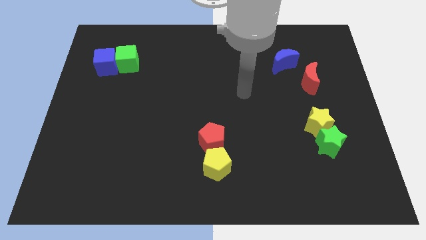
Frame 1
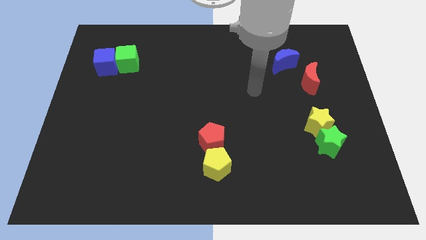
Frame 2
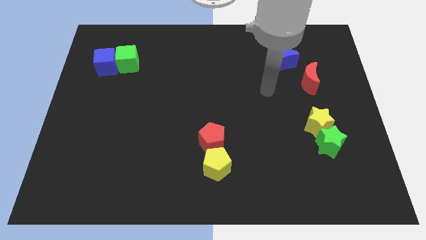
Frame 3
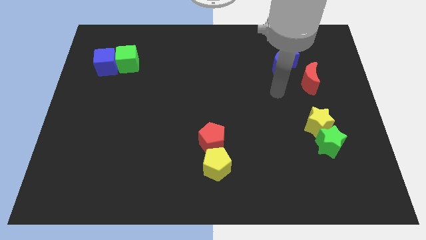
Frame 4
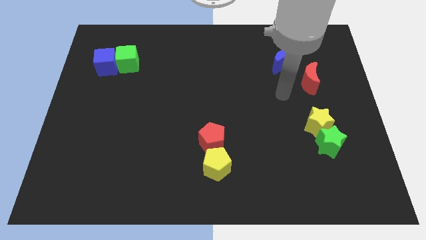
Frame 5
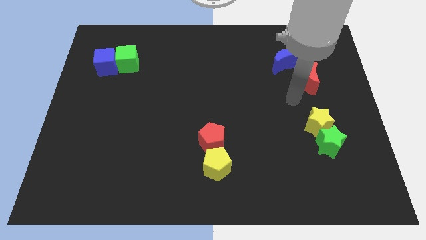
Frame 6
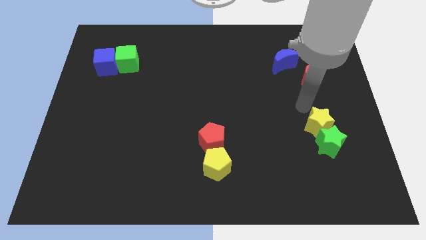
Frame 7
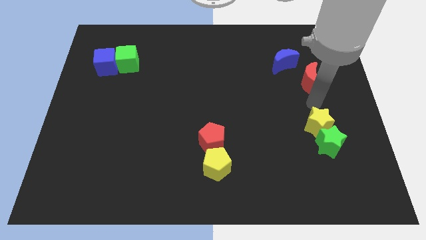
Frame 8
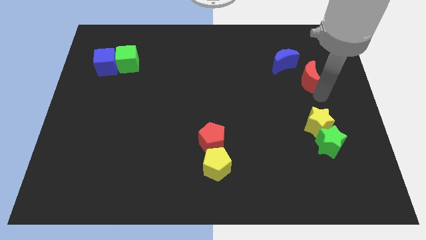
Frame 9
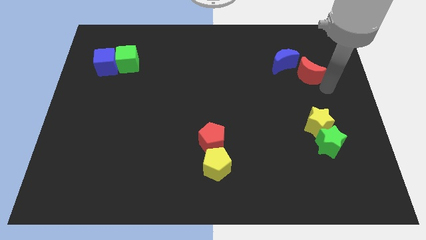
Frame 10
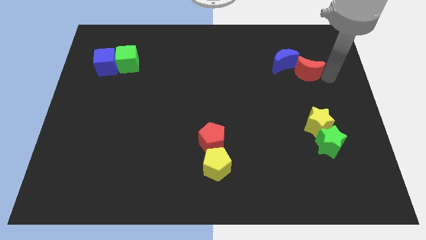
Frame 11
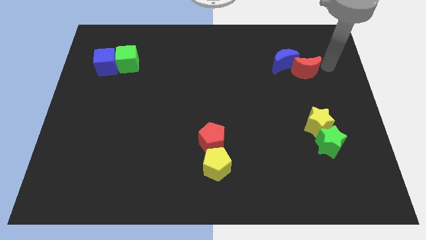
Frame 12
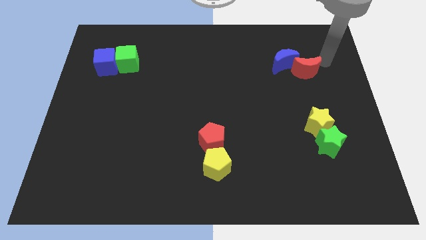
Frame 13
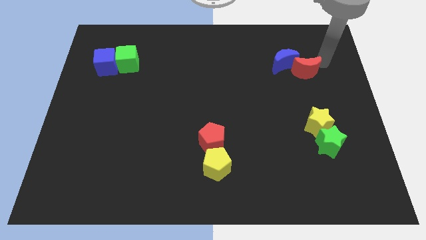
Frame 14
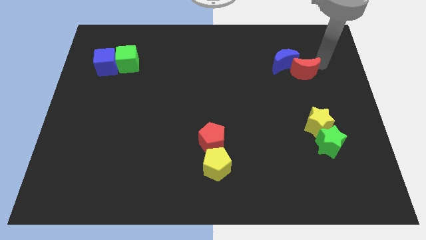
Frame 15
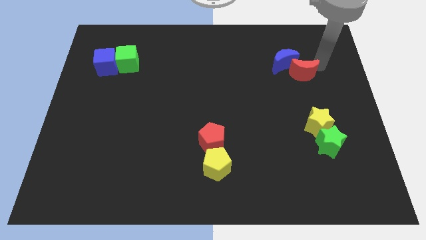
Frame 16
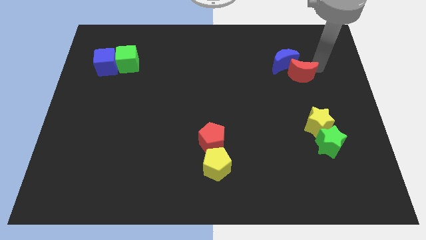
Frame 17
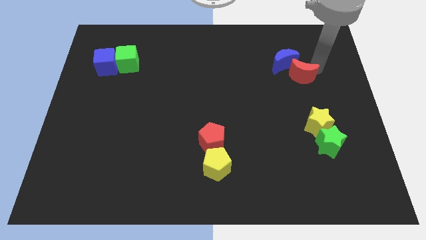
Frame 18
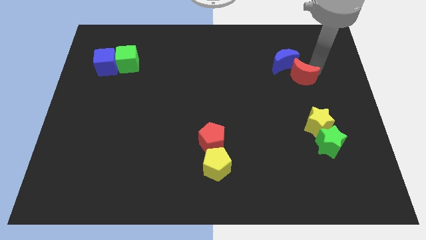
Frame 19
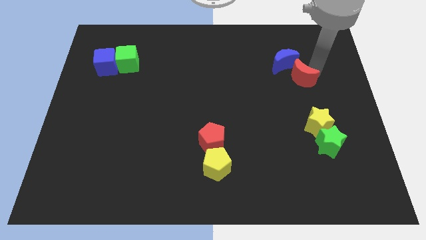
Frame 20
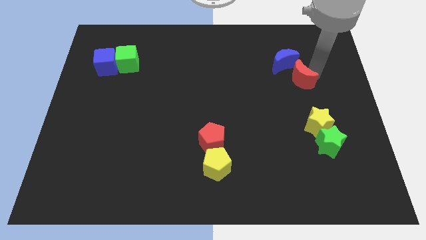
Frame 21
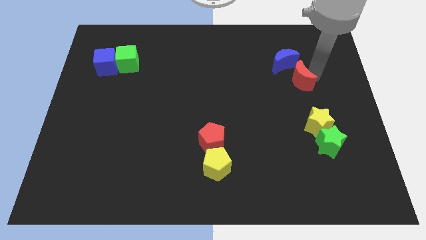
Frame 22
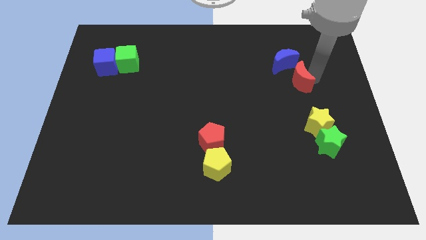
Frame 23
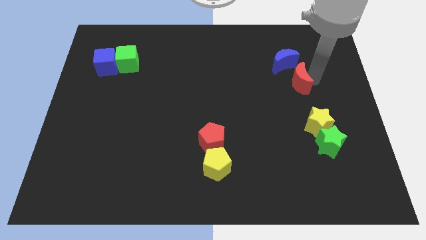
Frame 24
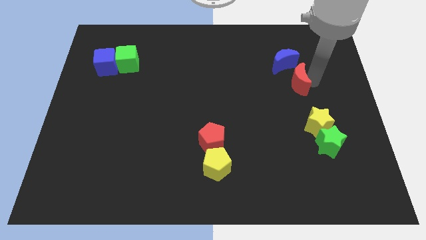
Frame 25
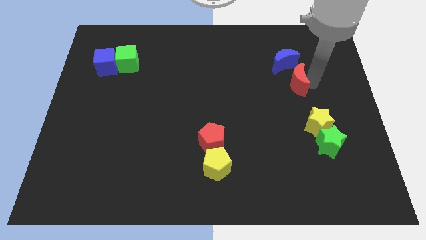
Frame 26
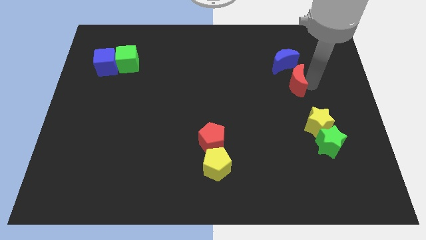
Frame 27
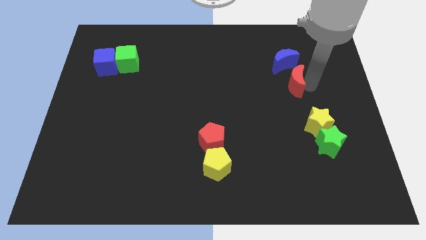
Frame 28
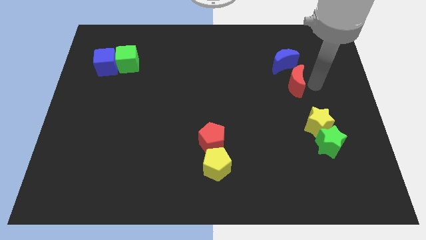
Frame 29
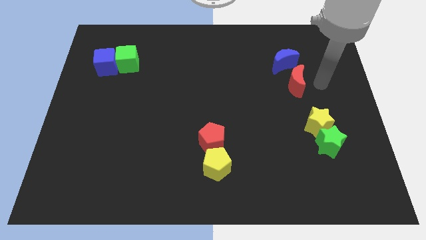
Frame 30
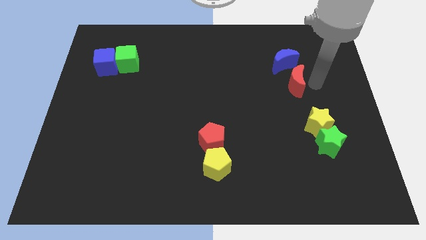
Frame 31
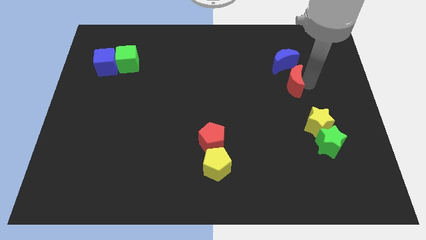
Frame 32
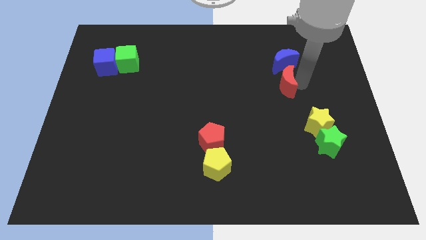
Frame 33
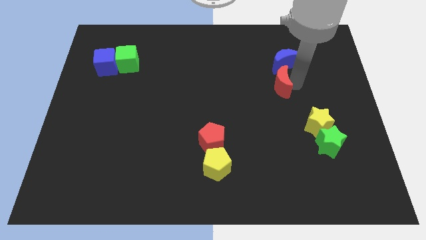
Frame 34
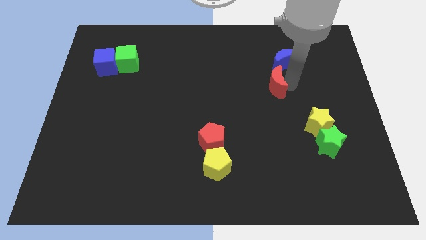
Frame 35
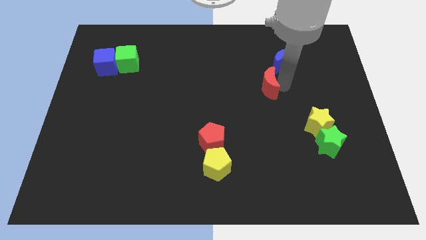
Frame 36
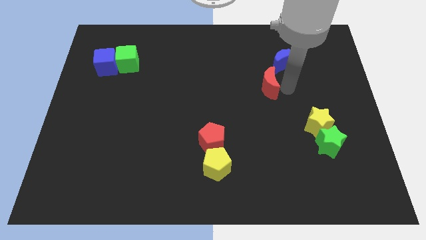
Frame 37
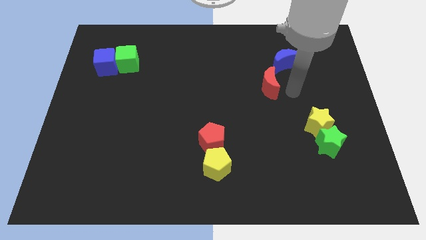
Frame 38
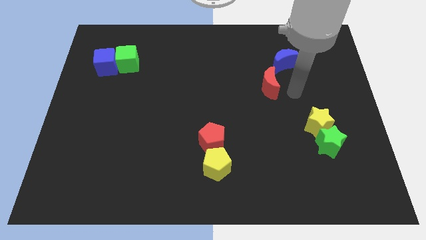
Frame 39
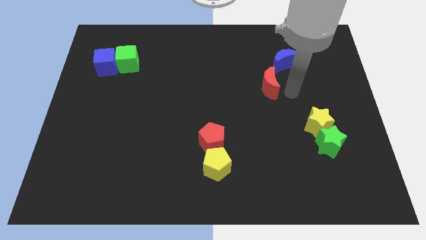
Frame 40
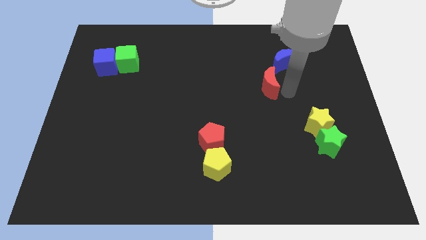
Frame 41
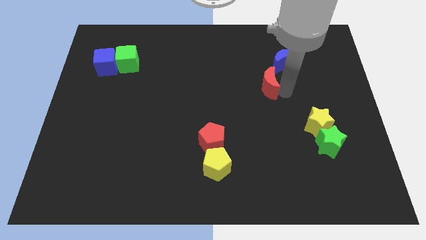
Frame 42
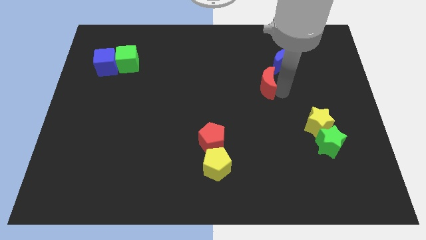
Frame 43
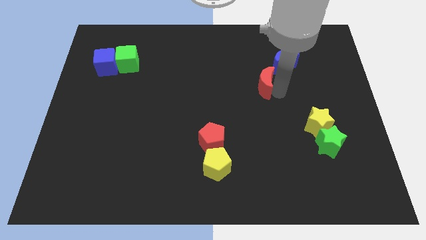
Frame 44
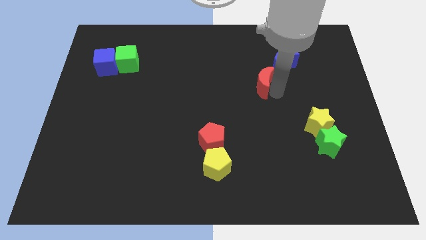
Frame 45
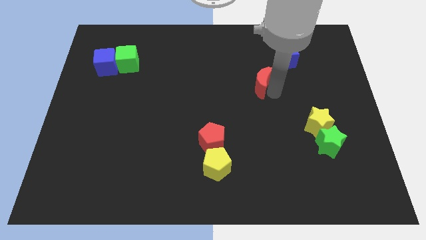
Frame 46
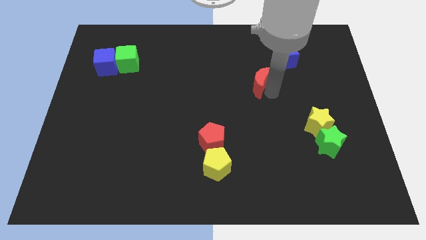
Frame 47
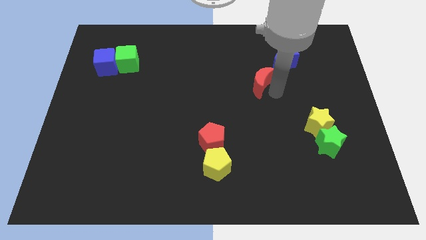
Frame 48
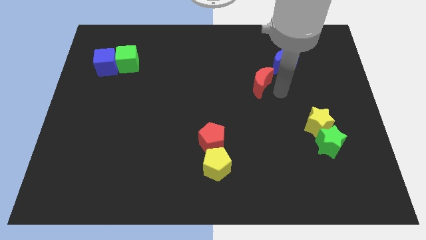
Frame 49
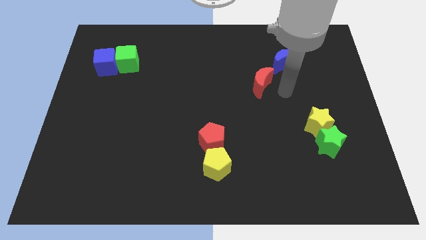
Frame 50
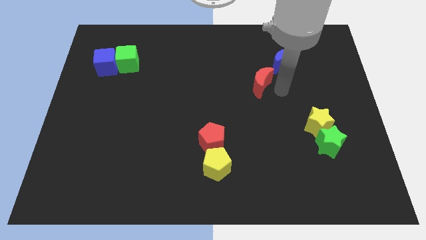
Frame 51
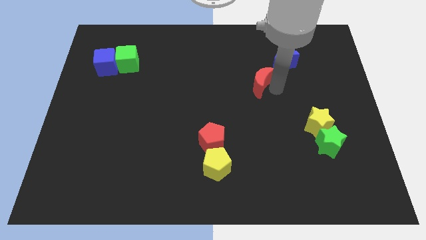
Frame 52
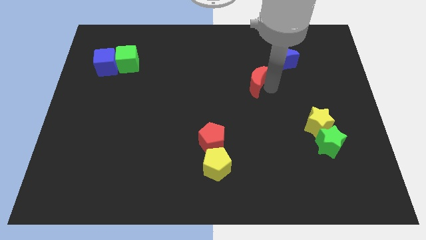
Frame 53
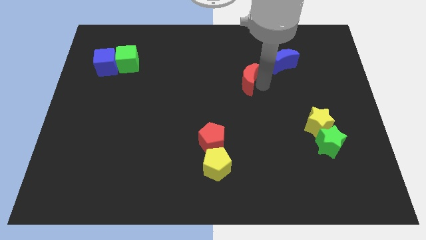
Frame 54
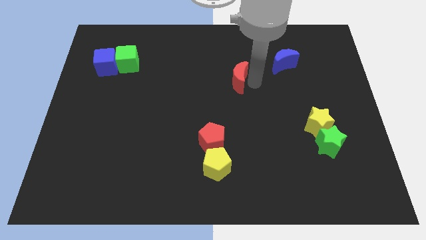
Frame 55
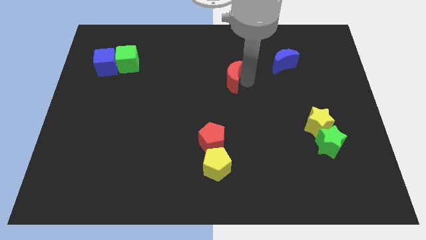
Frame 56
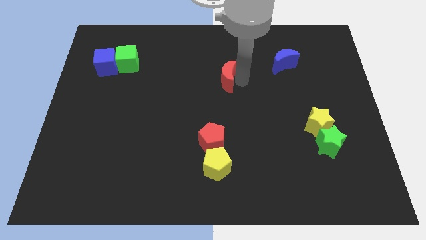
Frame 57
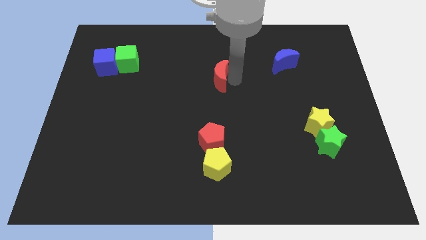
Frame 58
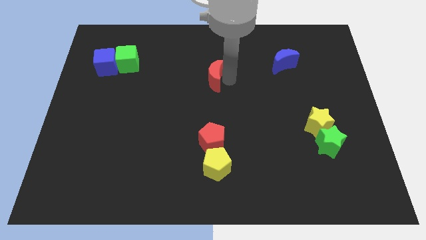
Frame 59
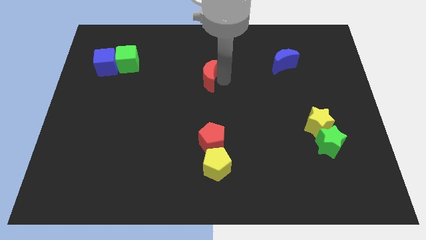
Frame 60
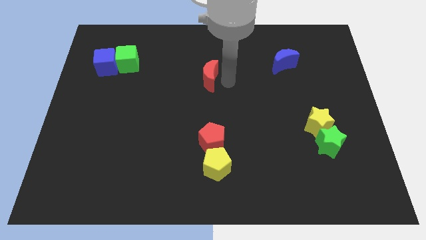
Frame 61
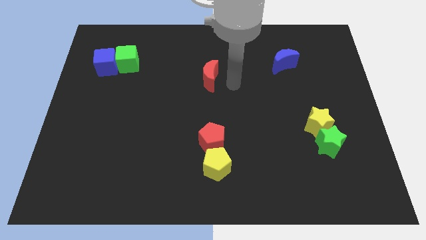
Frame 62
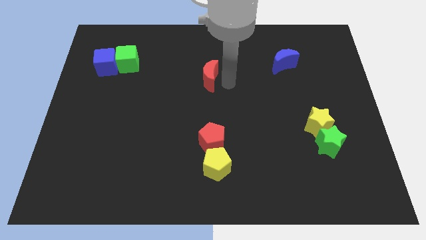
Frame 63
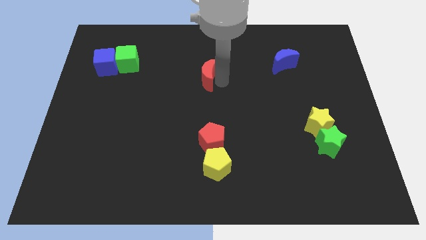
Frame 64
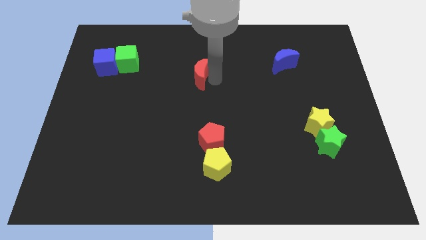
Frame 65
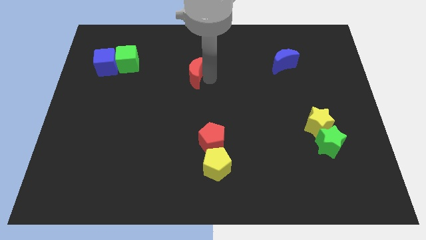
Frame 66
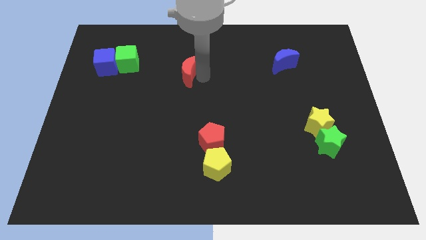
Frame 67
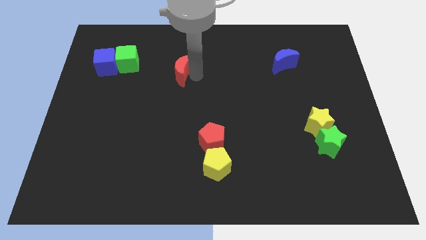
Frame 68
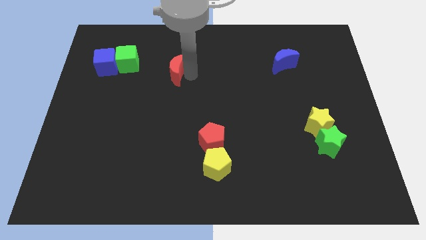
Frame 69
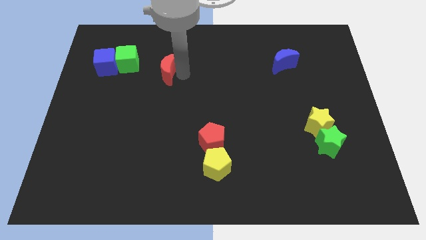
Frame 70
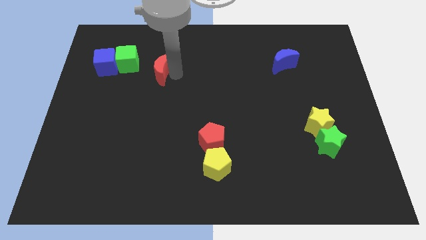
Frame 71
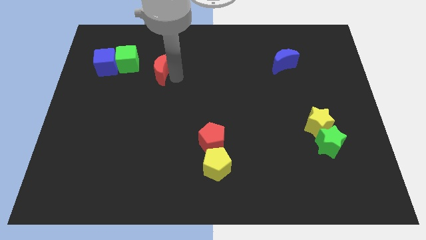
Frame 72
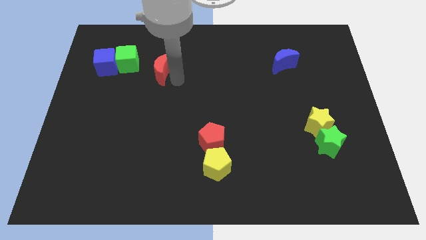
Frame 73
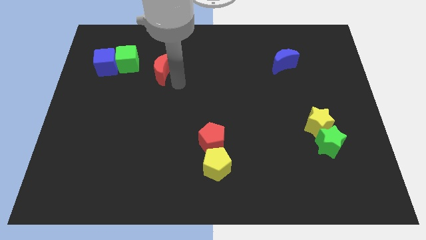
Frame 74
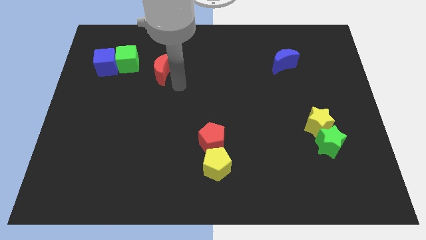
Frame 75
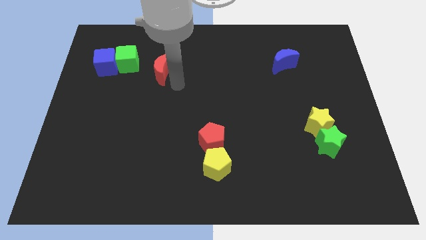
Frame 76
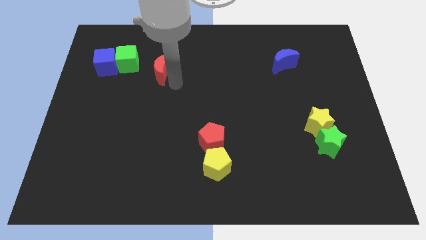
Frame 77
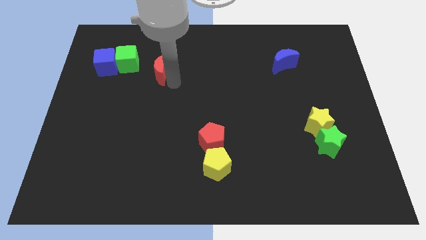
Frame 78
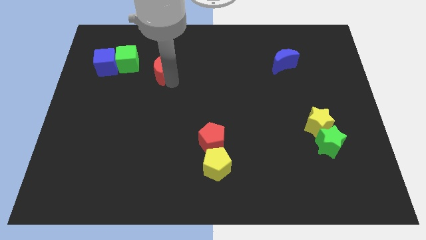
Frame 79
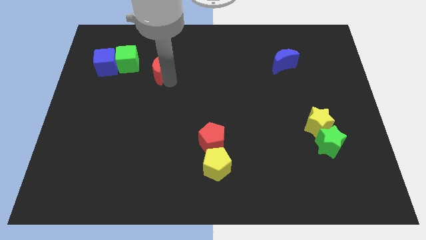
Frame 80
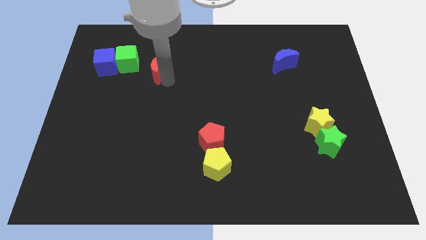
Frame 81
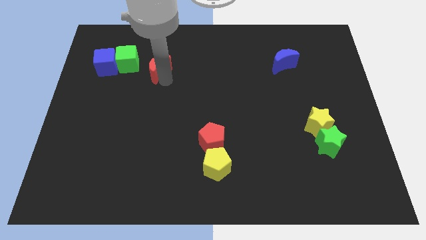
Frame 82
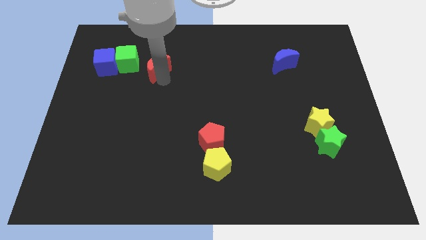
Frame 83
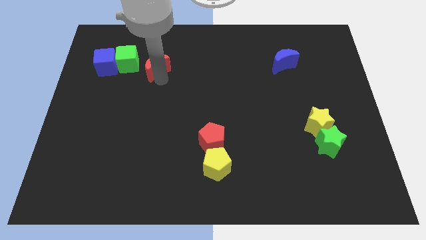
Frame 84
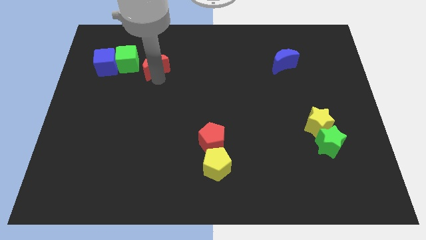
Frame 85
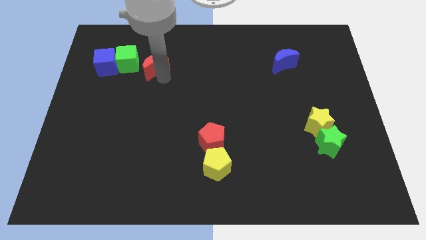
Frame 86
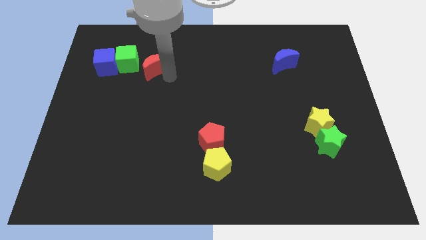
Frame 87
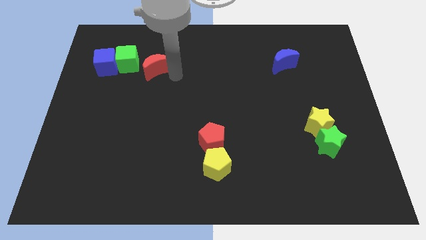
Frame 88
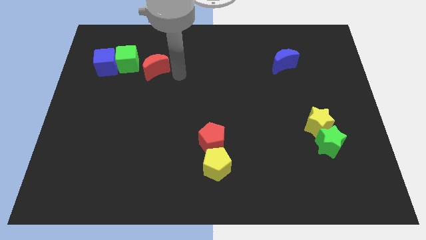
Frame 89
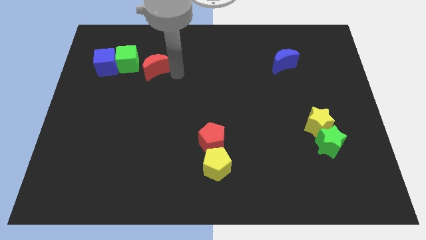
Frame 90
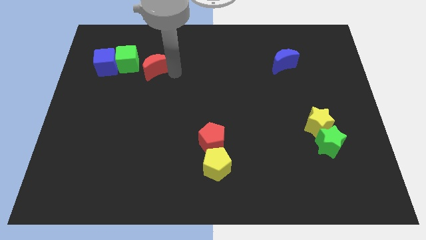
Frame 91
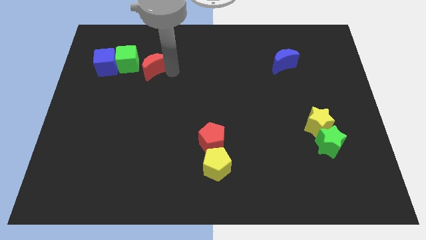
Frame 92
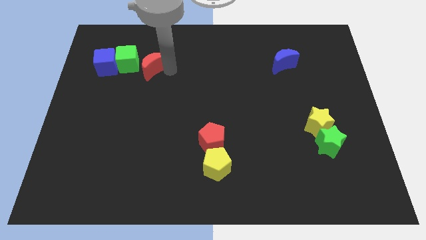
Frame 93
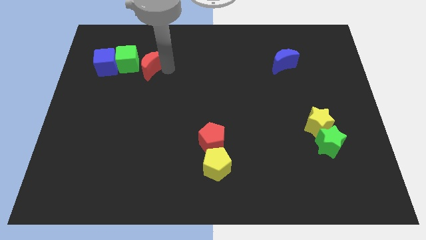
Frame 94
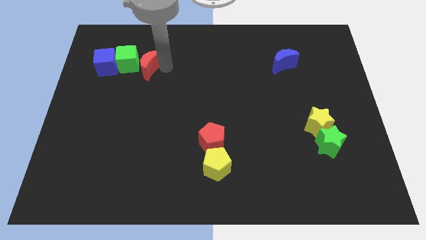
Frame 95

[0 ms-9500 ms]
move the red moon next to the green cube
